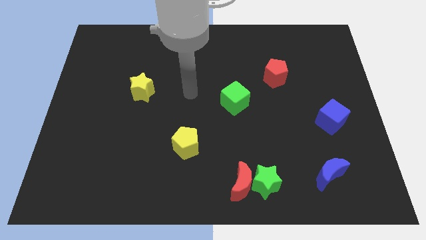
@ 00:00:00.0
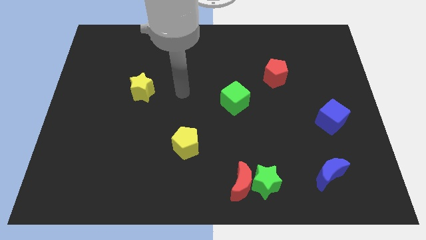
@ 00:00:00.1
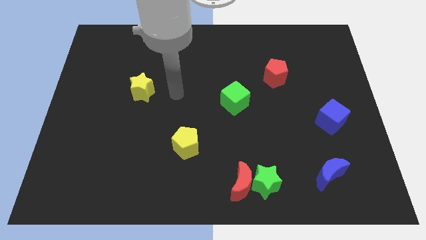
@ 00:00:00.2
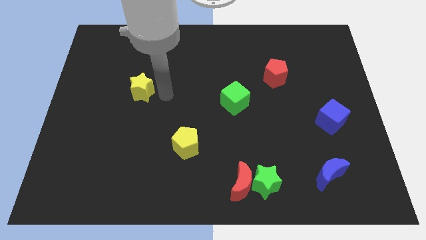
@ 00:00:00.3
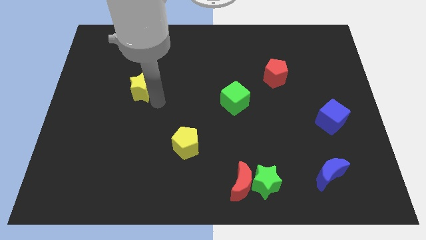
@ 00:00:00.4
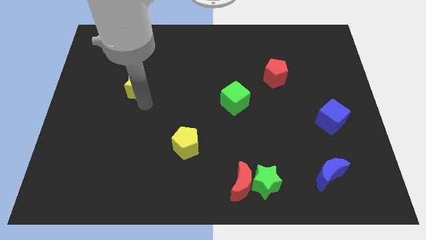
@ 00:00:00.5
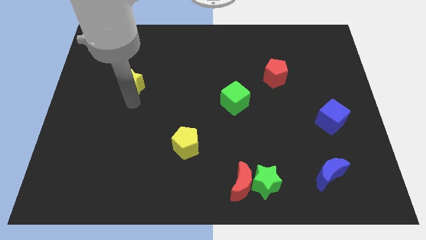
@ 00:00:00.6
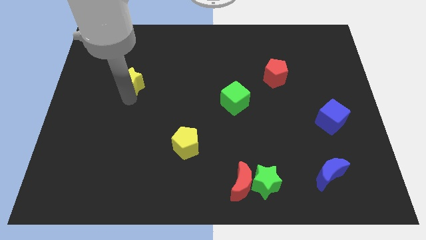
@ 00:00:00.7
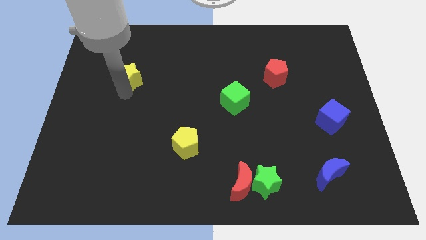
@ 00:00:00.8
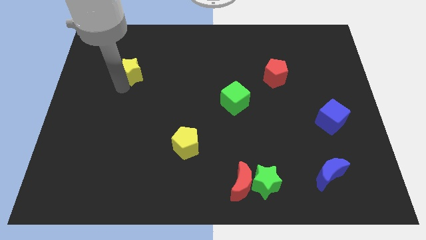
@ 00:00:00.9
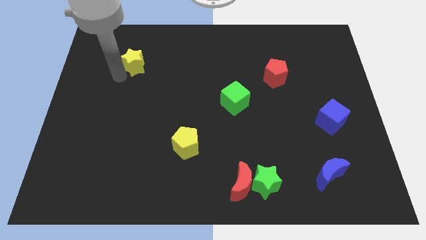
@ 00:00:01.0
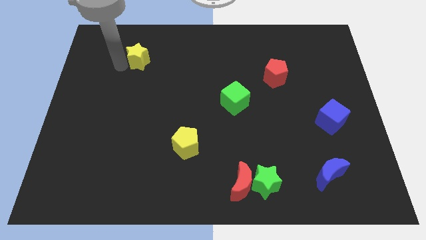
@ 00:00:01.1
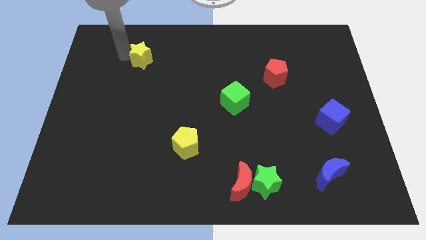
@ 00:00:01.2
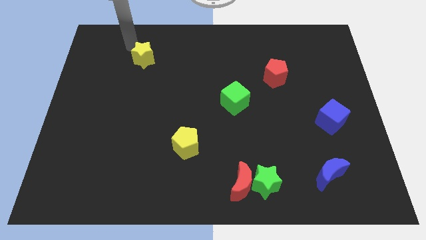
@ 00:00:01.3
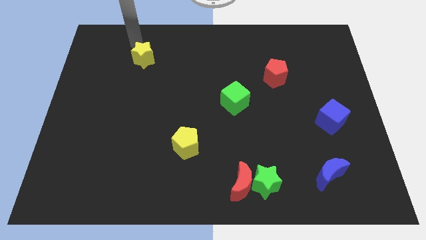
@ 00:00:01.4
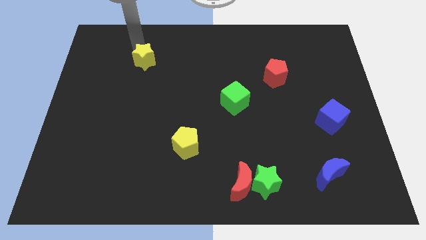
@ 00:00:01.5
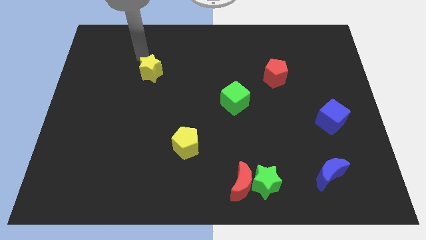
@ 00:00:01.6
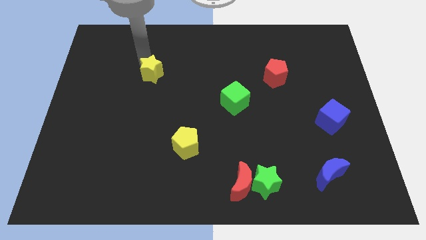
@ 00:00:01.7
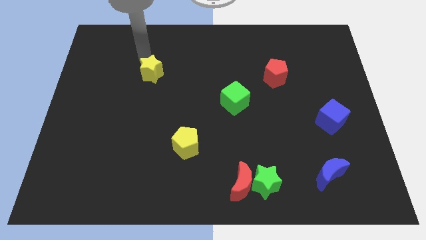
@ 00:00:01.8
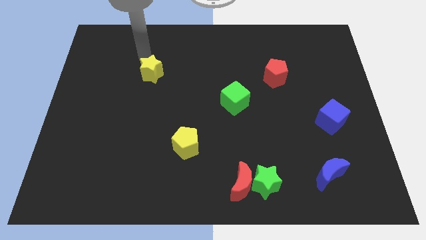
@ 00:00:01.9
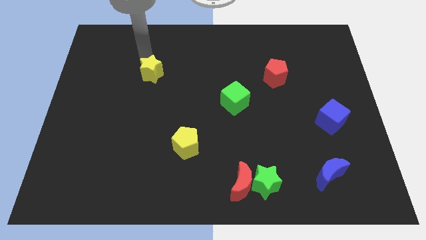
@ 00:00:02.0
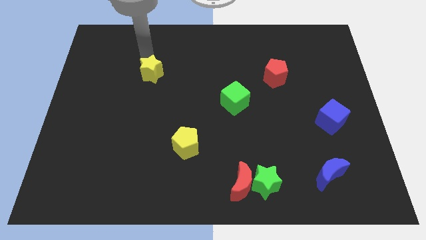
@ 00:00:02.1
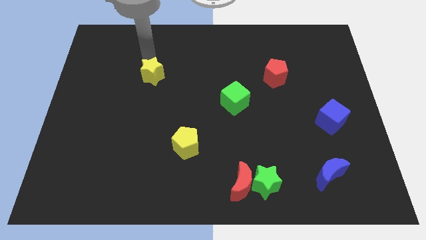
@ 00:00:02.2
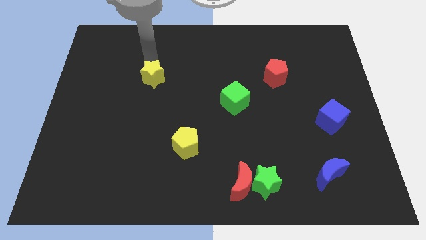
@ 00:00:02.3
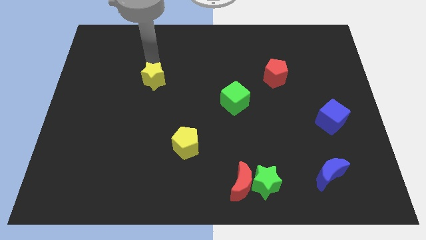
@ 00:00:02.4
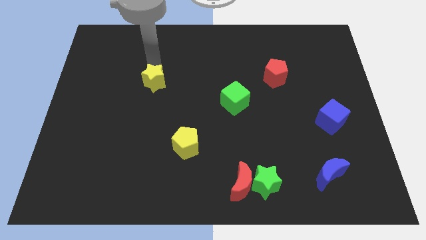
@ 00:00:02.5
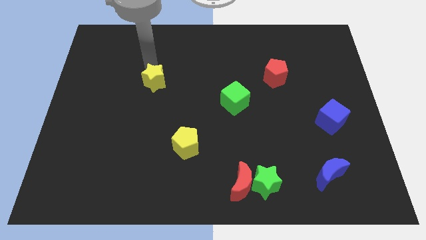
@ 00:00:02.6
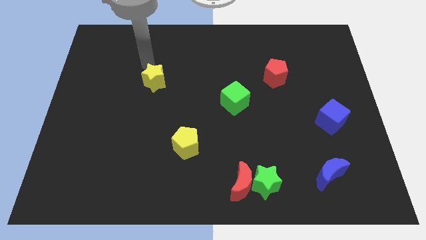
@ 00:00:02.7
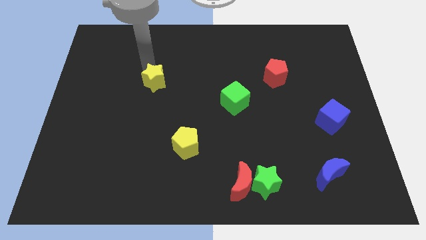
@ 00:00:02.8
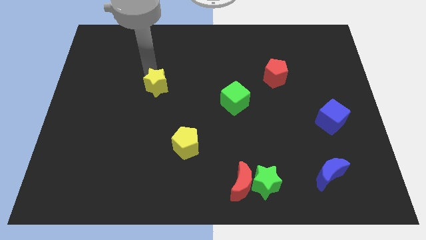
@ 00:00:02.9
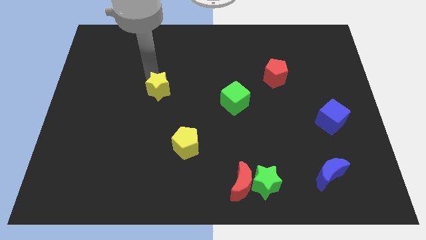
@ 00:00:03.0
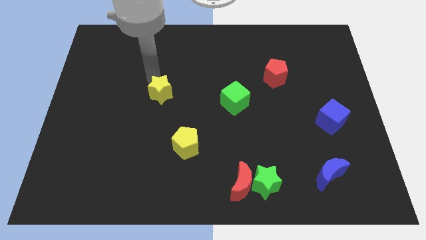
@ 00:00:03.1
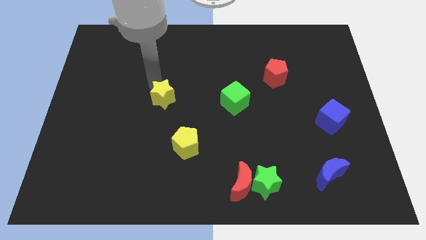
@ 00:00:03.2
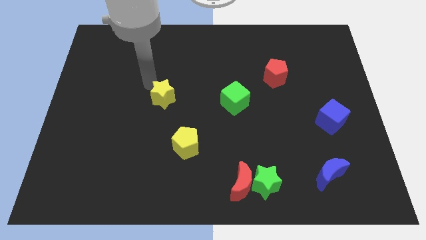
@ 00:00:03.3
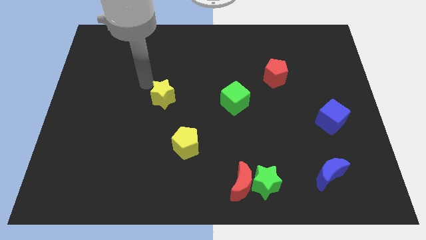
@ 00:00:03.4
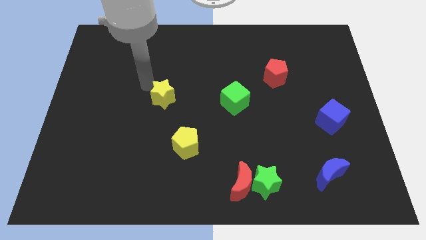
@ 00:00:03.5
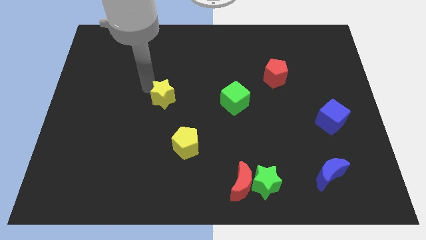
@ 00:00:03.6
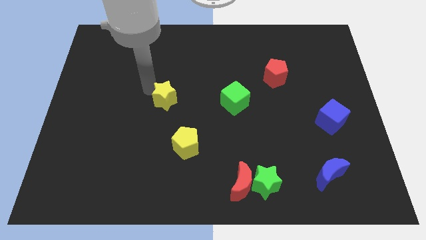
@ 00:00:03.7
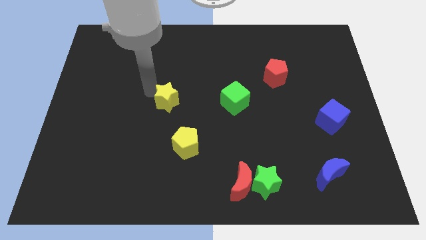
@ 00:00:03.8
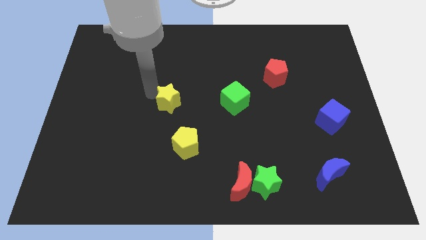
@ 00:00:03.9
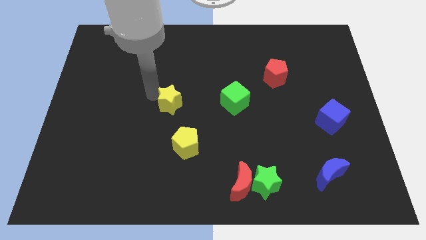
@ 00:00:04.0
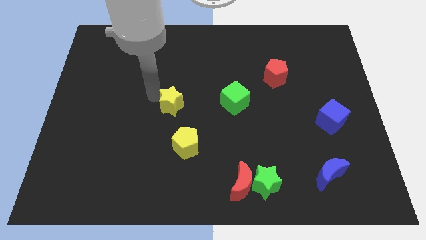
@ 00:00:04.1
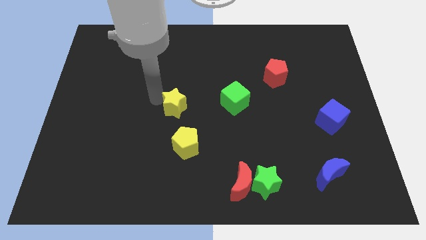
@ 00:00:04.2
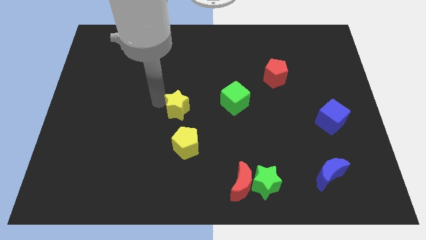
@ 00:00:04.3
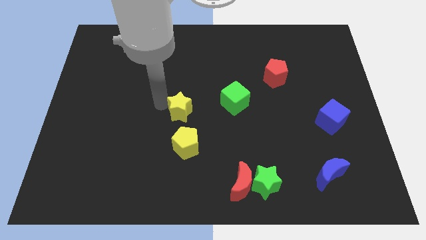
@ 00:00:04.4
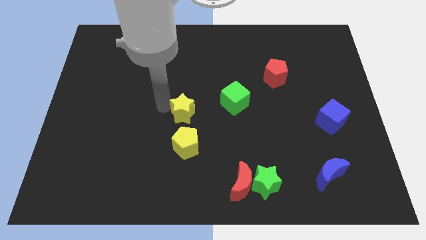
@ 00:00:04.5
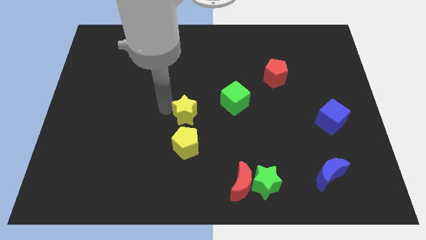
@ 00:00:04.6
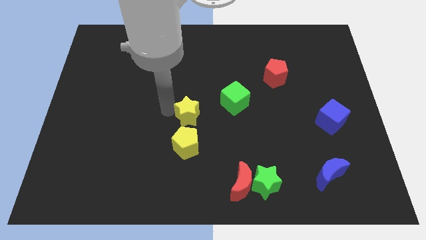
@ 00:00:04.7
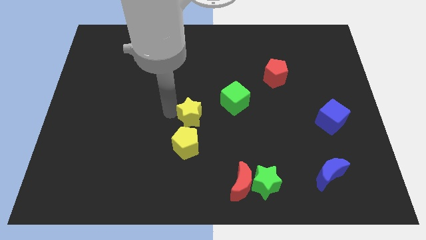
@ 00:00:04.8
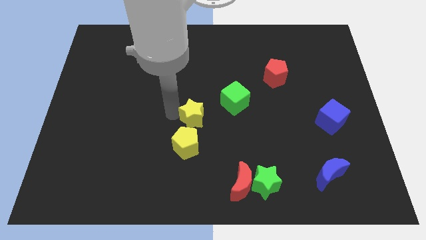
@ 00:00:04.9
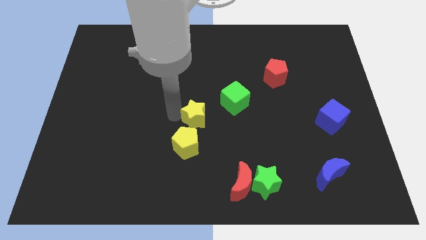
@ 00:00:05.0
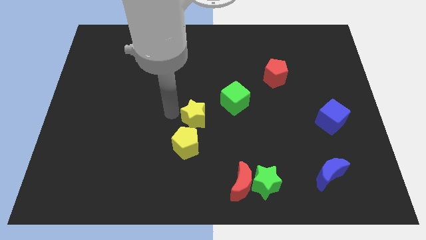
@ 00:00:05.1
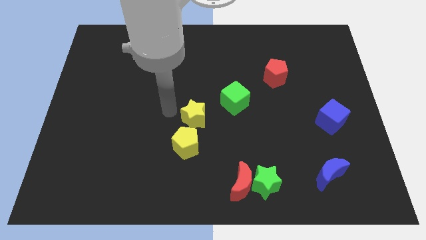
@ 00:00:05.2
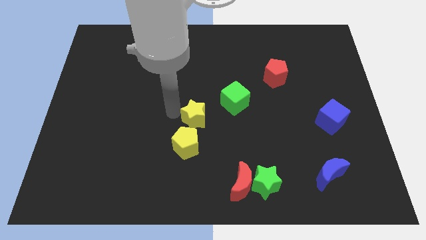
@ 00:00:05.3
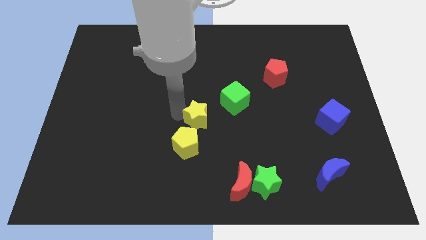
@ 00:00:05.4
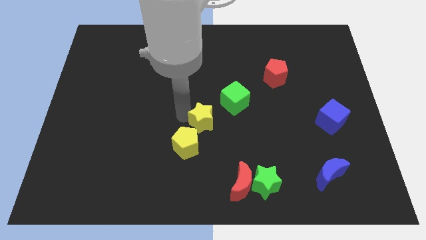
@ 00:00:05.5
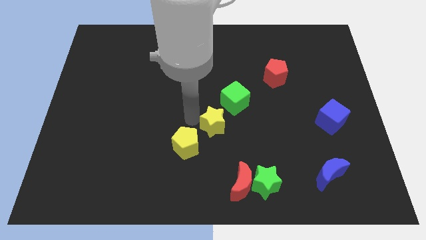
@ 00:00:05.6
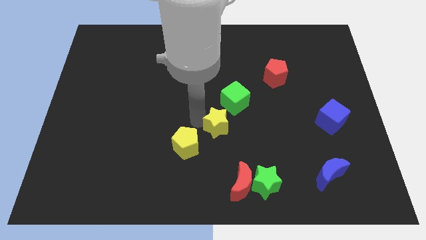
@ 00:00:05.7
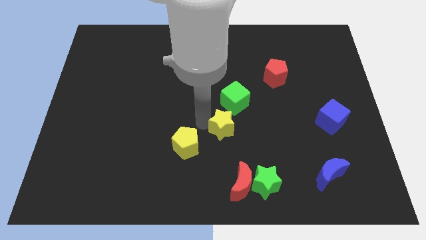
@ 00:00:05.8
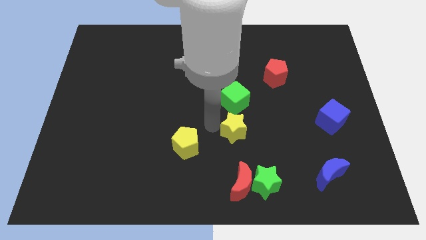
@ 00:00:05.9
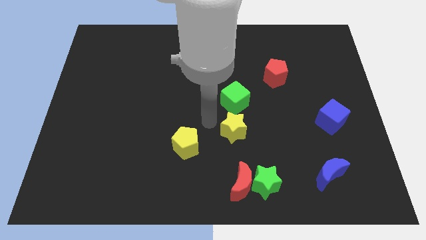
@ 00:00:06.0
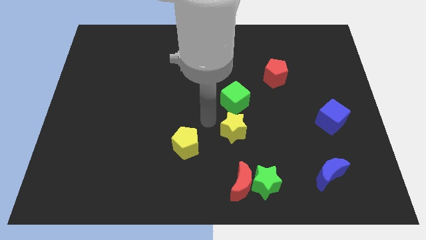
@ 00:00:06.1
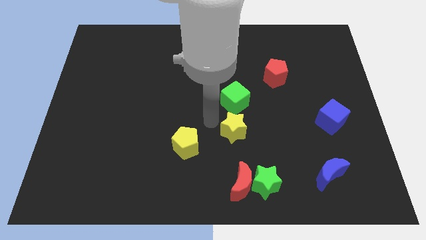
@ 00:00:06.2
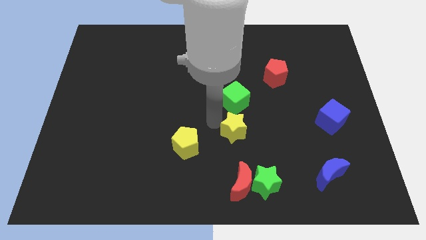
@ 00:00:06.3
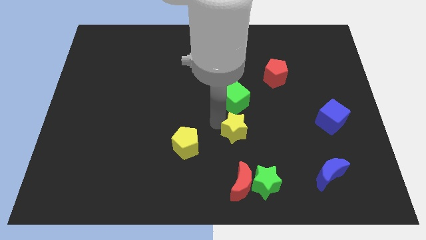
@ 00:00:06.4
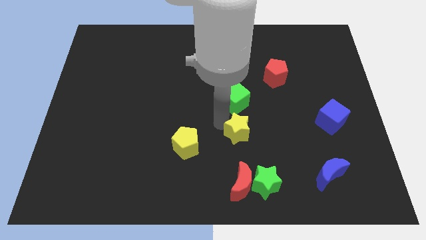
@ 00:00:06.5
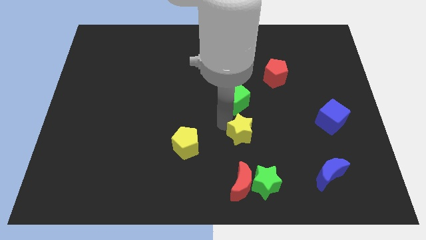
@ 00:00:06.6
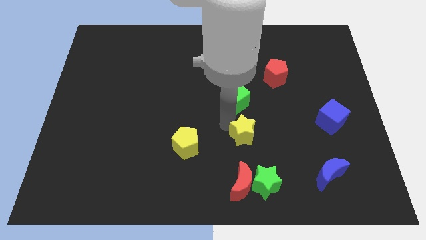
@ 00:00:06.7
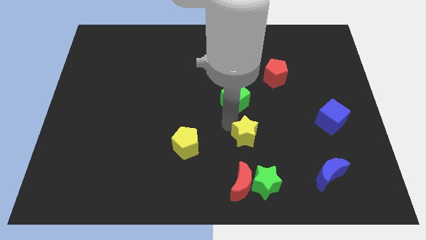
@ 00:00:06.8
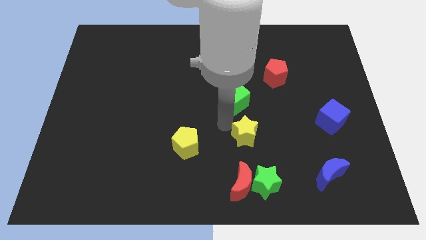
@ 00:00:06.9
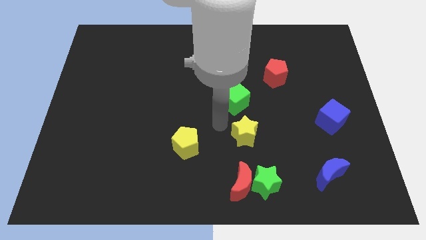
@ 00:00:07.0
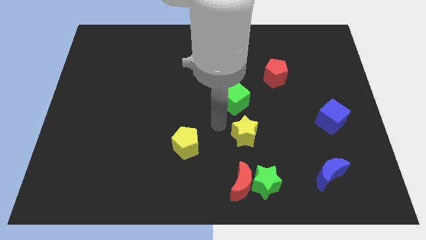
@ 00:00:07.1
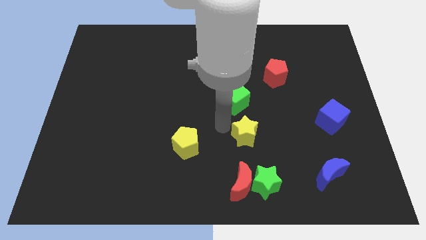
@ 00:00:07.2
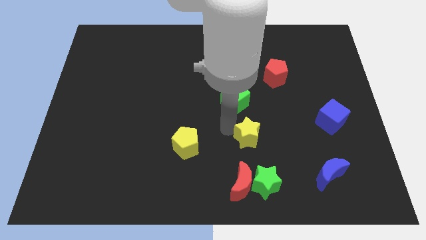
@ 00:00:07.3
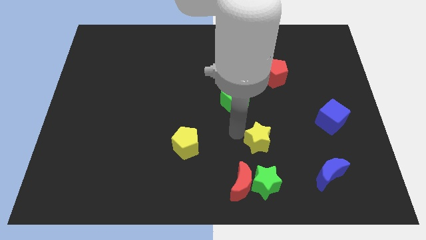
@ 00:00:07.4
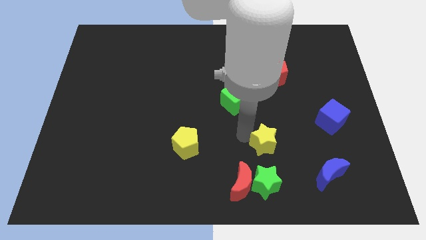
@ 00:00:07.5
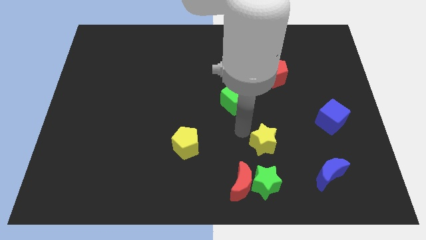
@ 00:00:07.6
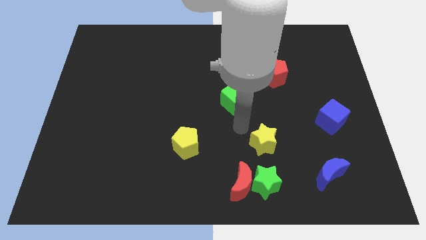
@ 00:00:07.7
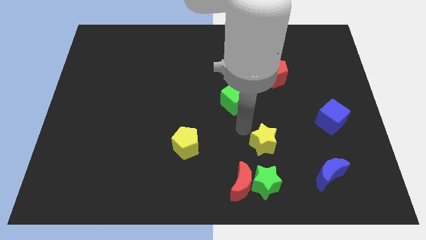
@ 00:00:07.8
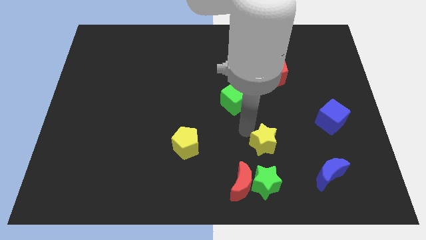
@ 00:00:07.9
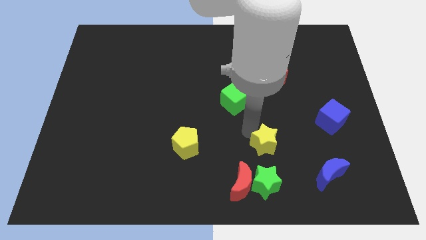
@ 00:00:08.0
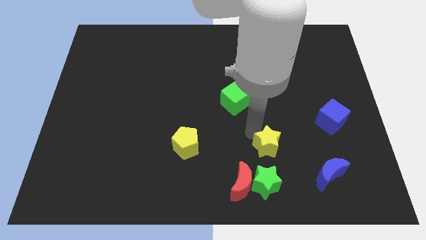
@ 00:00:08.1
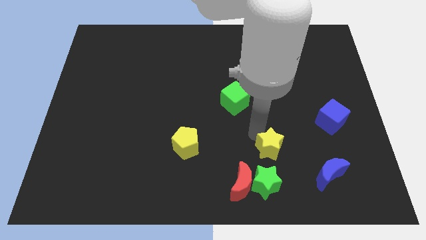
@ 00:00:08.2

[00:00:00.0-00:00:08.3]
push the yellow star diagonally up and to the right of the green star
